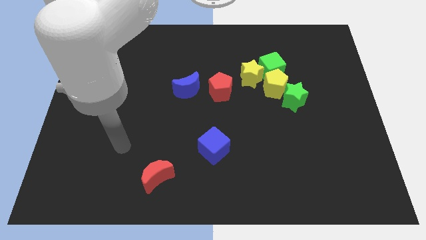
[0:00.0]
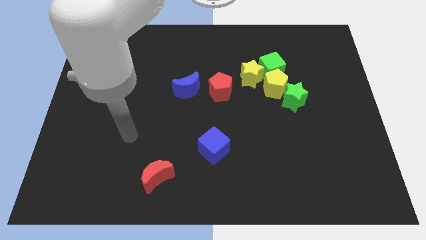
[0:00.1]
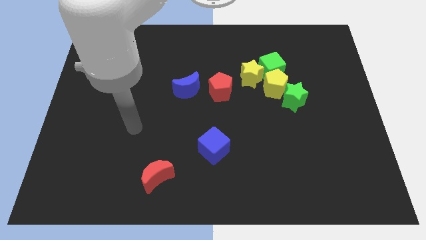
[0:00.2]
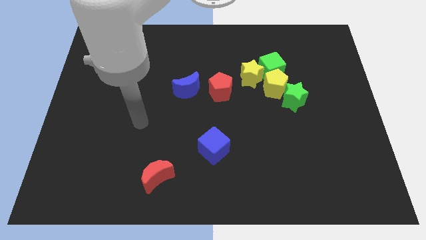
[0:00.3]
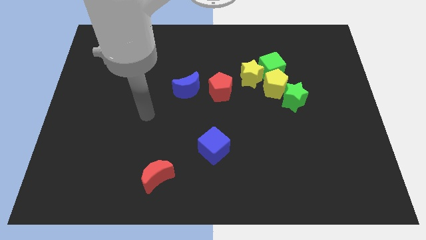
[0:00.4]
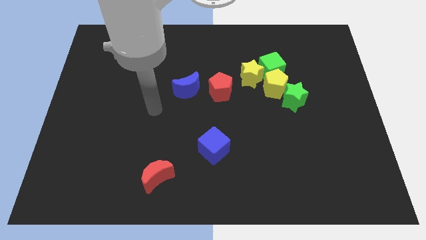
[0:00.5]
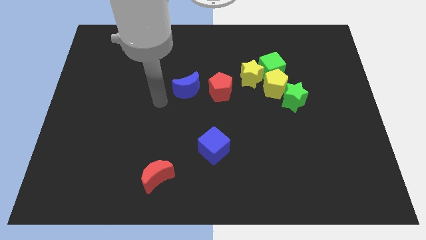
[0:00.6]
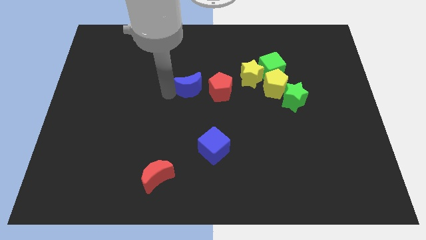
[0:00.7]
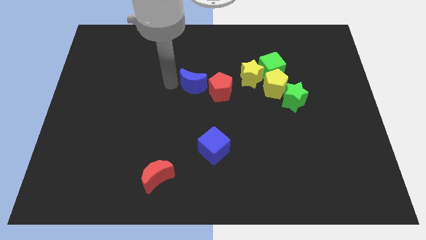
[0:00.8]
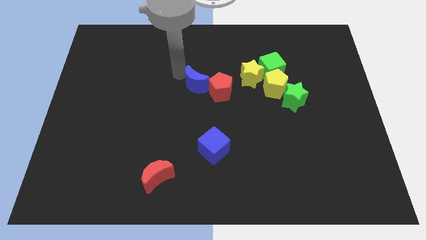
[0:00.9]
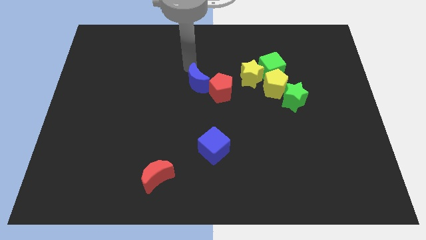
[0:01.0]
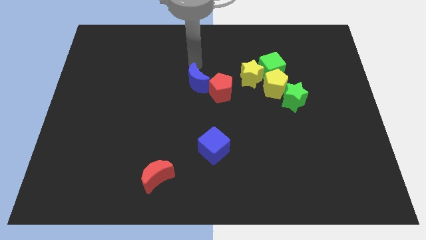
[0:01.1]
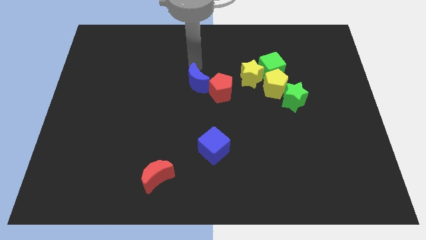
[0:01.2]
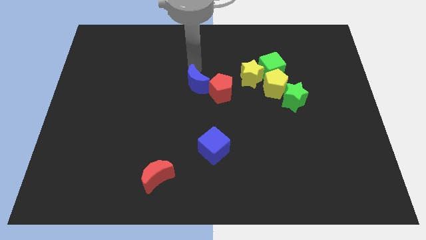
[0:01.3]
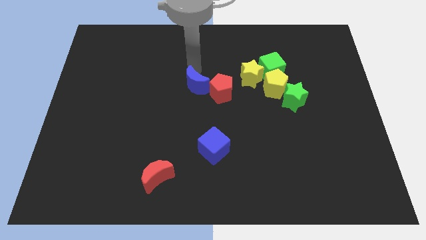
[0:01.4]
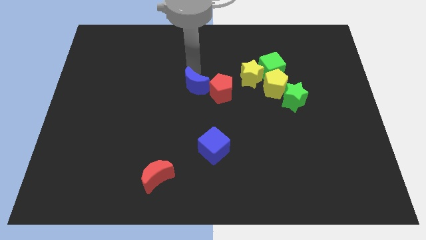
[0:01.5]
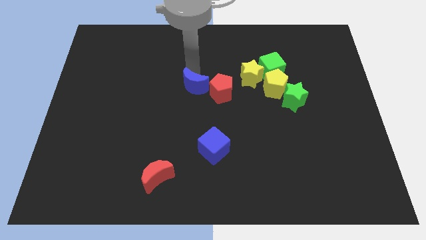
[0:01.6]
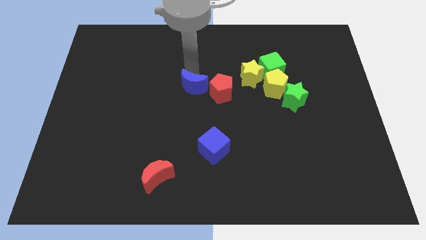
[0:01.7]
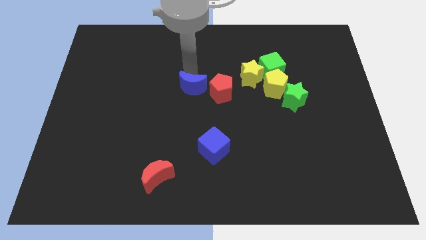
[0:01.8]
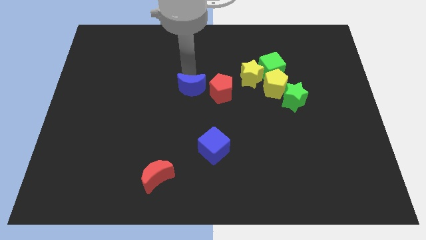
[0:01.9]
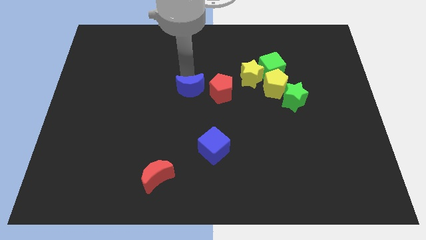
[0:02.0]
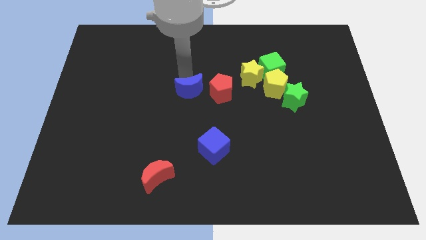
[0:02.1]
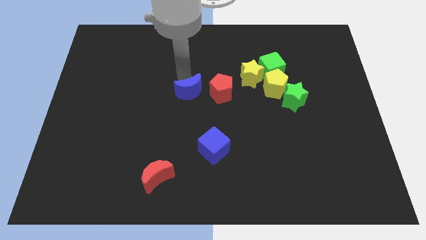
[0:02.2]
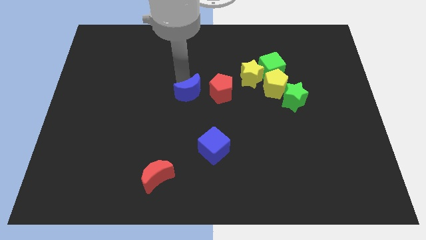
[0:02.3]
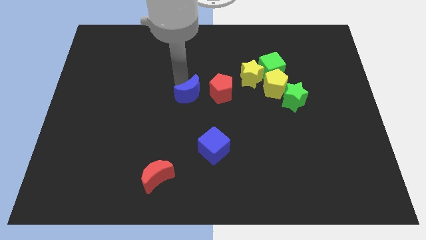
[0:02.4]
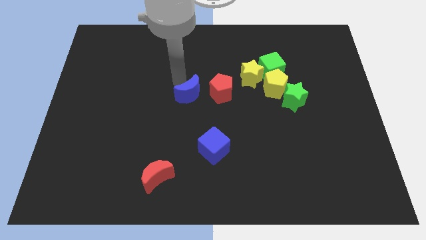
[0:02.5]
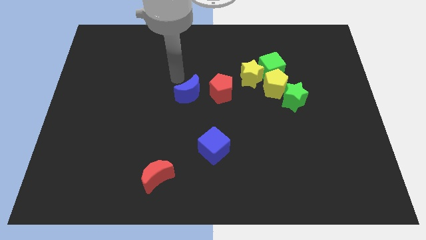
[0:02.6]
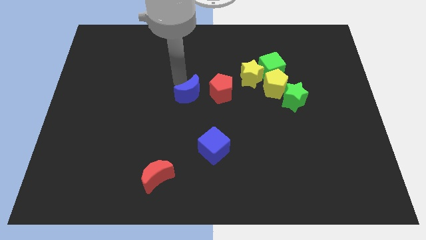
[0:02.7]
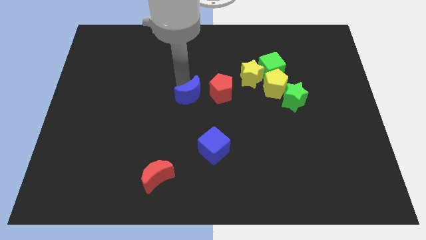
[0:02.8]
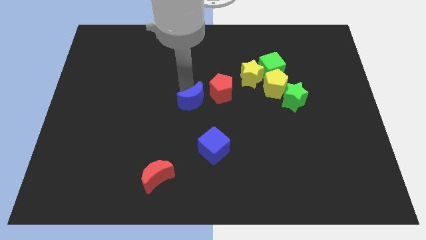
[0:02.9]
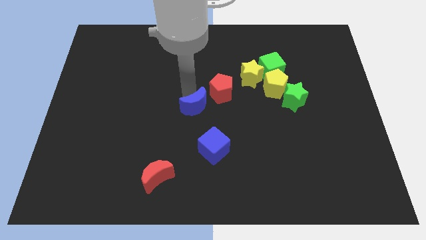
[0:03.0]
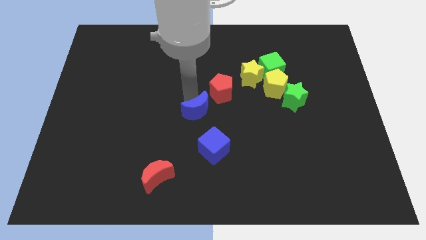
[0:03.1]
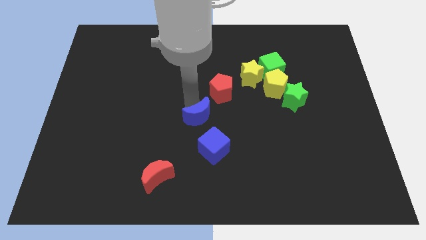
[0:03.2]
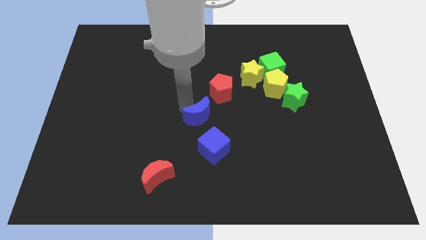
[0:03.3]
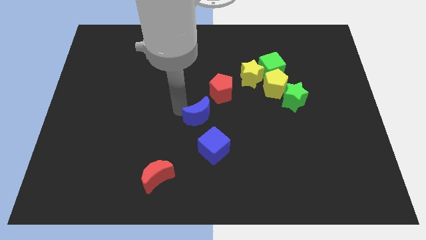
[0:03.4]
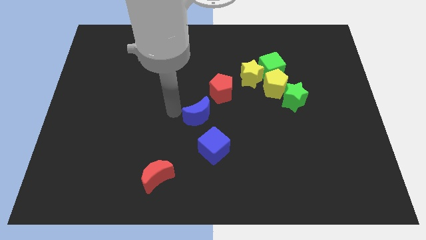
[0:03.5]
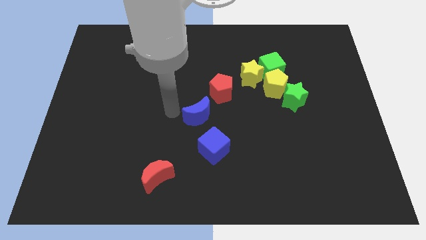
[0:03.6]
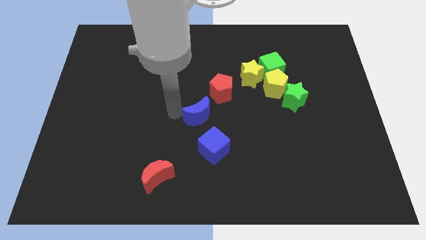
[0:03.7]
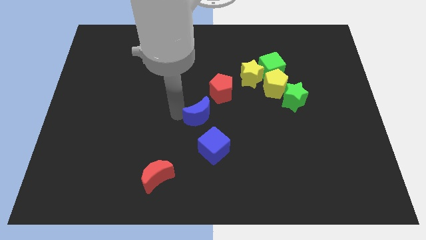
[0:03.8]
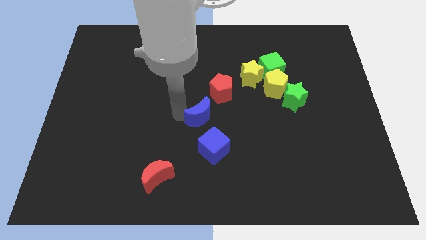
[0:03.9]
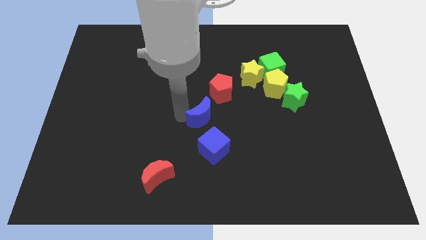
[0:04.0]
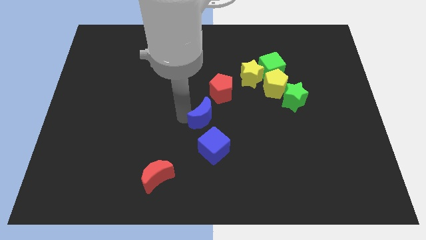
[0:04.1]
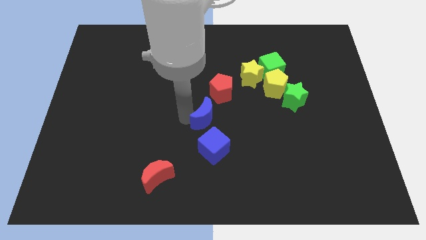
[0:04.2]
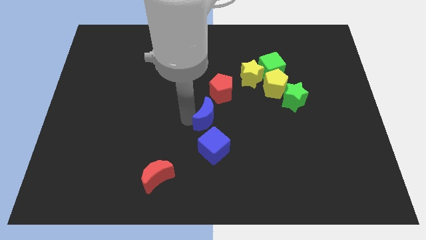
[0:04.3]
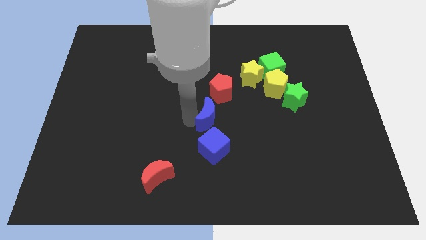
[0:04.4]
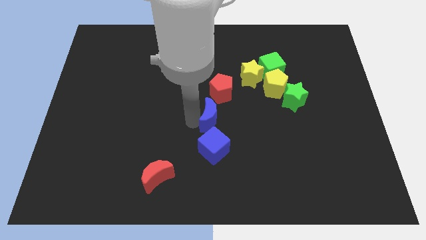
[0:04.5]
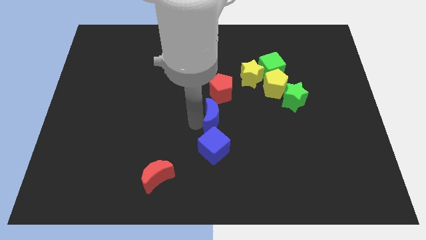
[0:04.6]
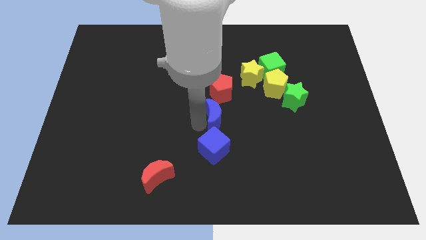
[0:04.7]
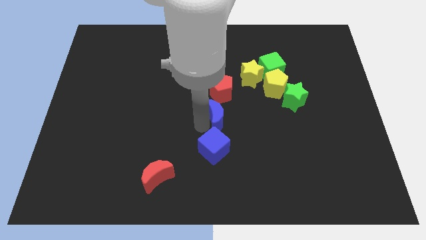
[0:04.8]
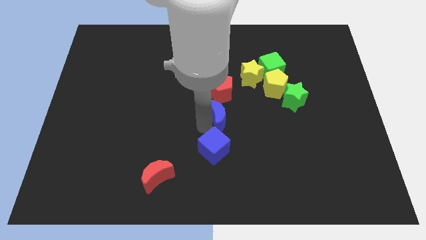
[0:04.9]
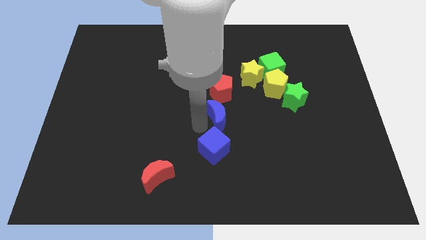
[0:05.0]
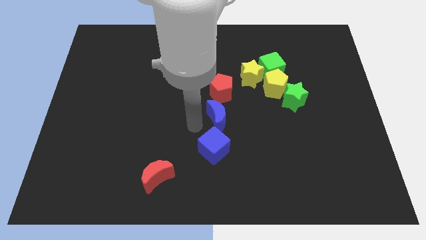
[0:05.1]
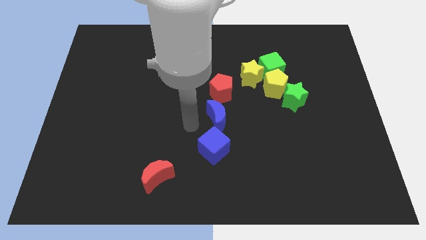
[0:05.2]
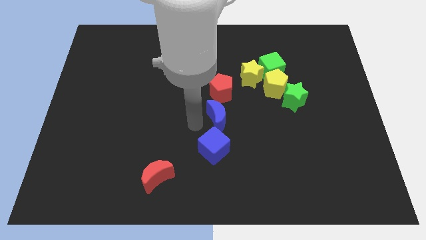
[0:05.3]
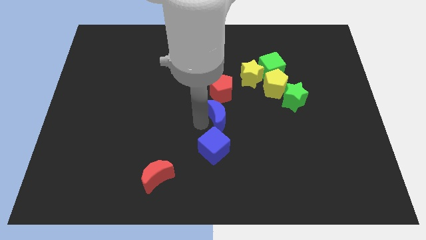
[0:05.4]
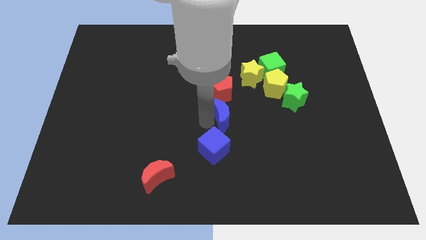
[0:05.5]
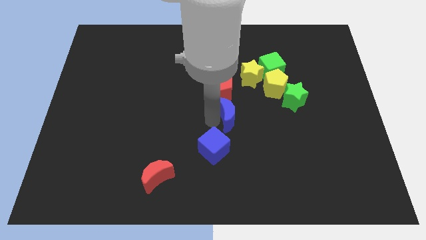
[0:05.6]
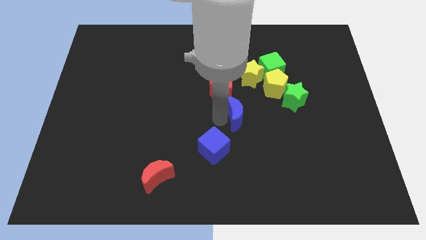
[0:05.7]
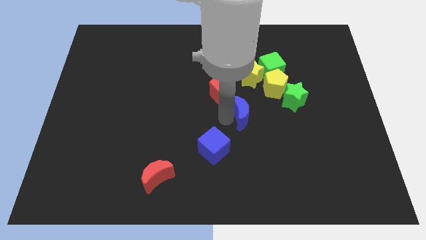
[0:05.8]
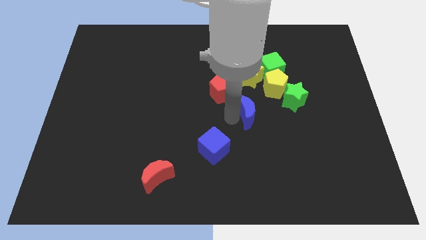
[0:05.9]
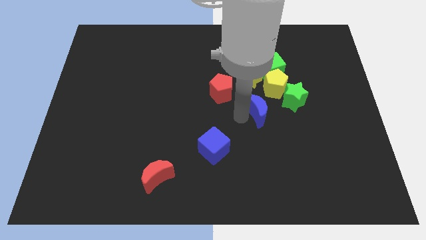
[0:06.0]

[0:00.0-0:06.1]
push the blue moon to the bottom side of the green cube
